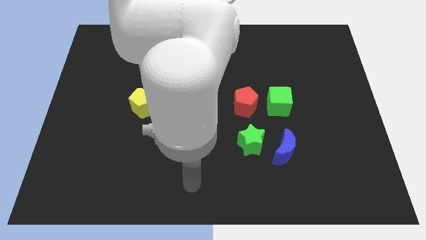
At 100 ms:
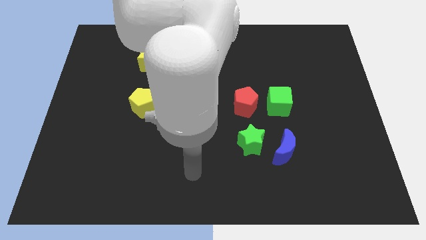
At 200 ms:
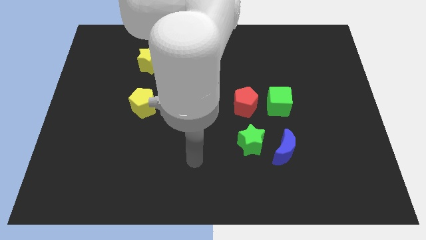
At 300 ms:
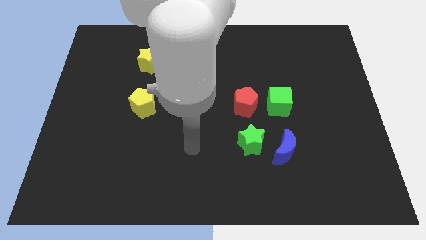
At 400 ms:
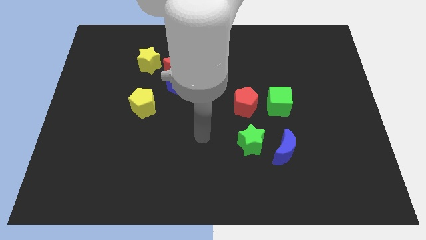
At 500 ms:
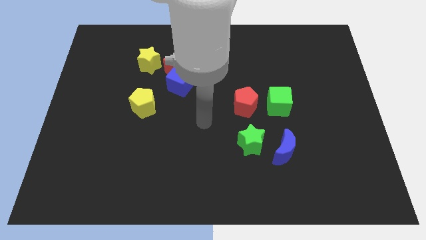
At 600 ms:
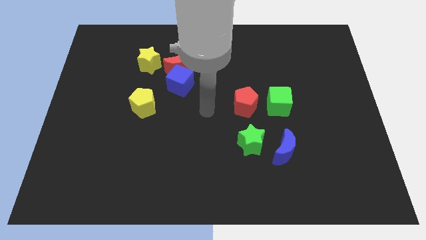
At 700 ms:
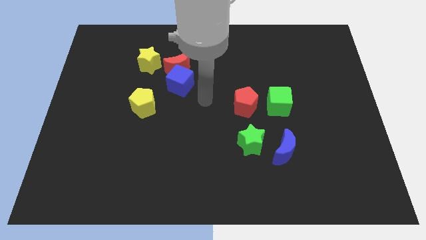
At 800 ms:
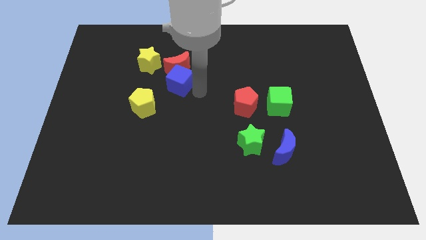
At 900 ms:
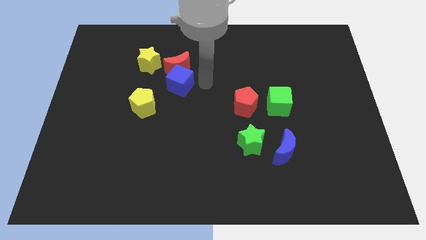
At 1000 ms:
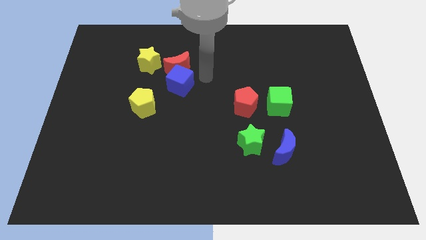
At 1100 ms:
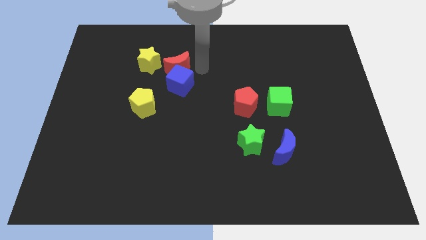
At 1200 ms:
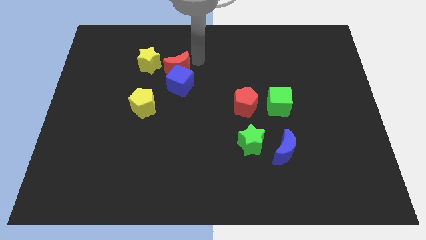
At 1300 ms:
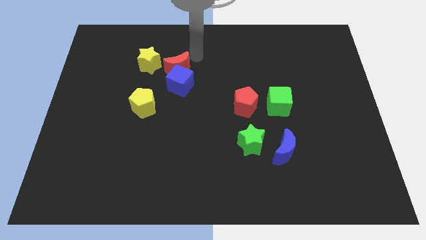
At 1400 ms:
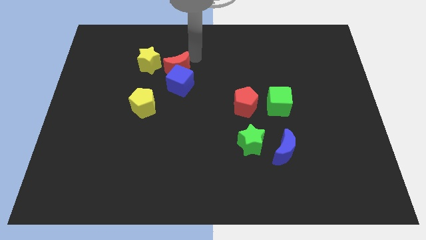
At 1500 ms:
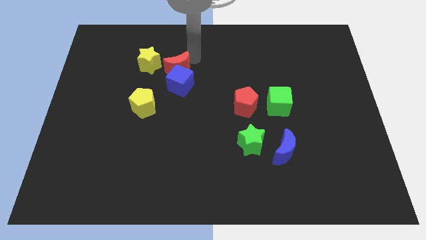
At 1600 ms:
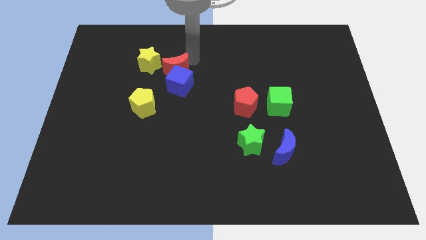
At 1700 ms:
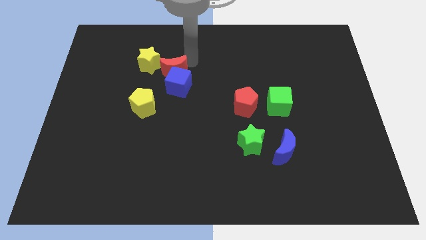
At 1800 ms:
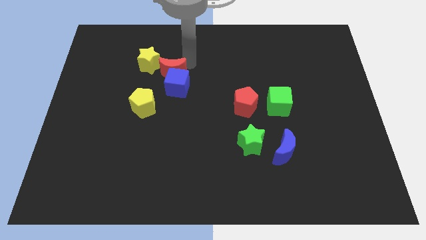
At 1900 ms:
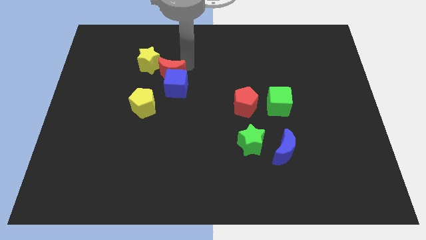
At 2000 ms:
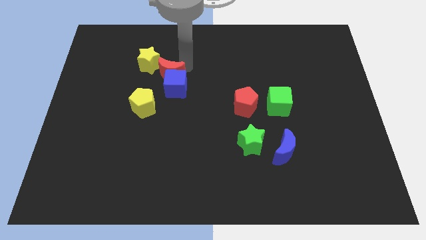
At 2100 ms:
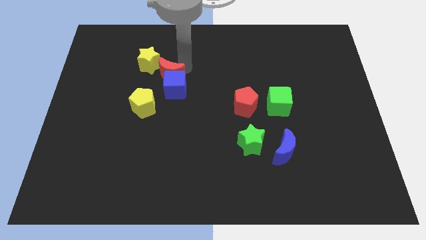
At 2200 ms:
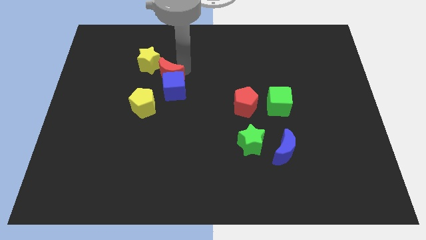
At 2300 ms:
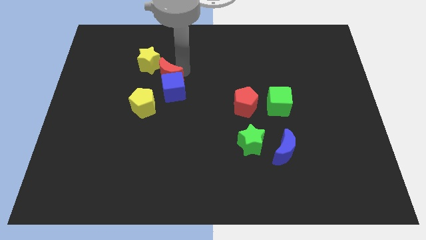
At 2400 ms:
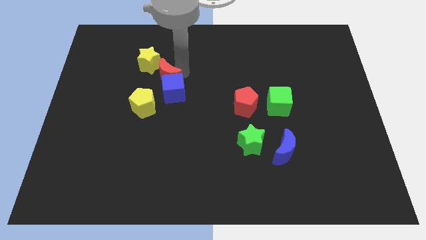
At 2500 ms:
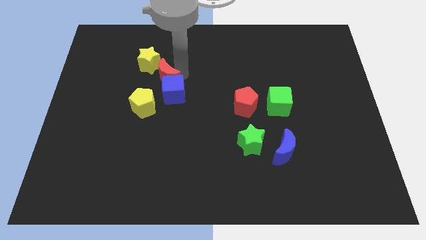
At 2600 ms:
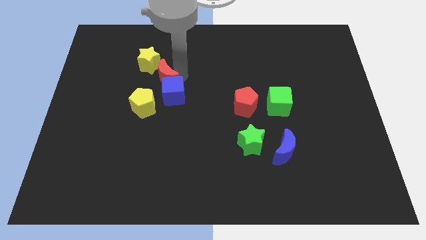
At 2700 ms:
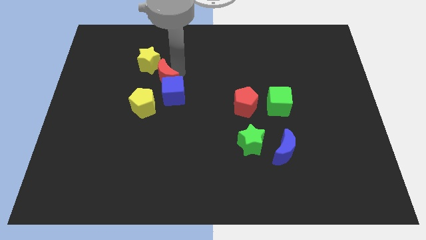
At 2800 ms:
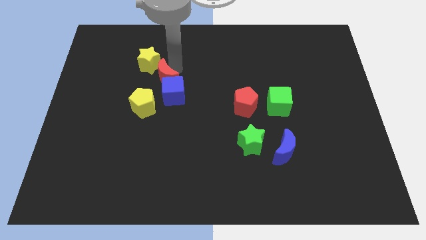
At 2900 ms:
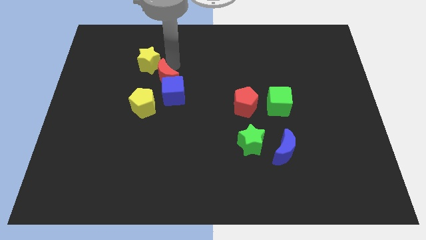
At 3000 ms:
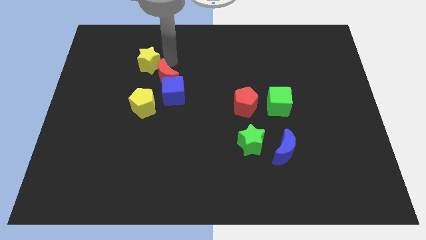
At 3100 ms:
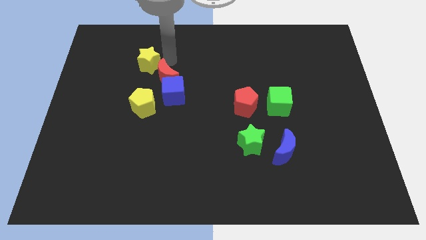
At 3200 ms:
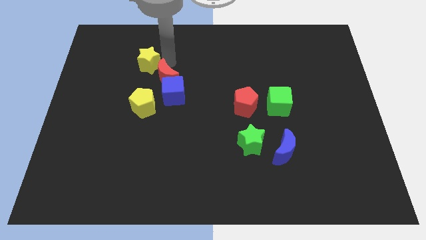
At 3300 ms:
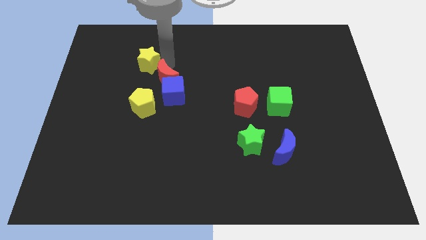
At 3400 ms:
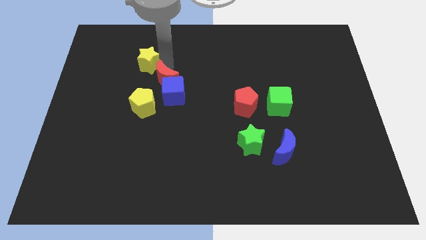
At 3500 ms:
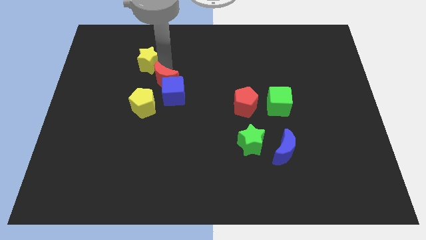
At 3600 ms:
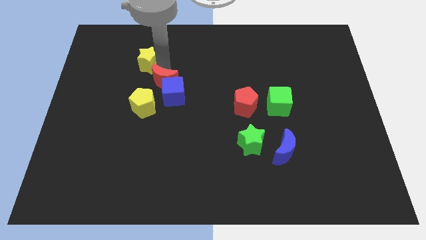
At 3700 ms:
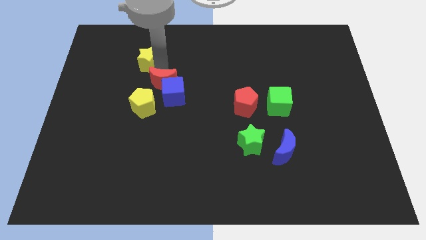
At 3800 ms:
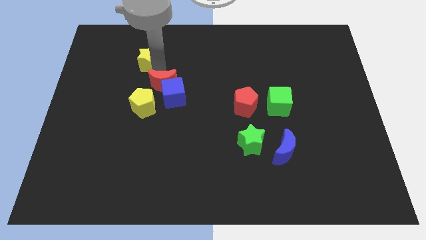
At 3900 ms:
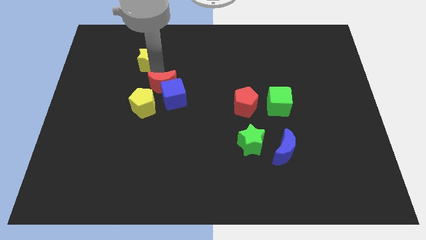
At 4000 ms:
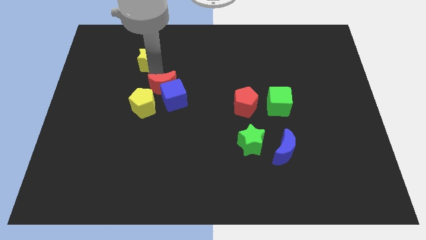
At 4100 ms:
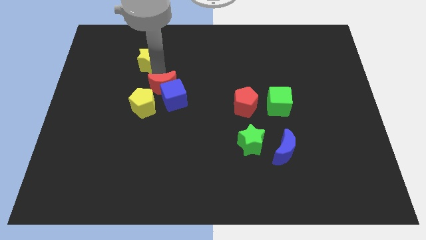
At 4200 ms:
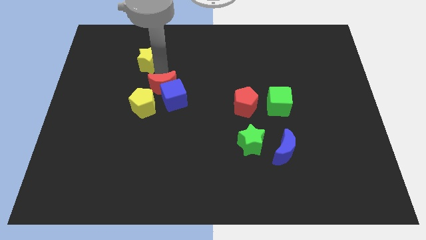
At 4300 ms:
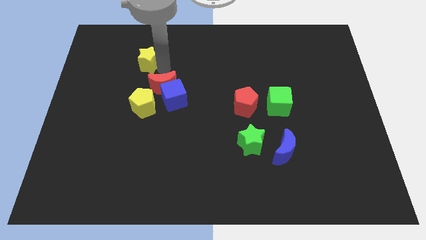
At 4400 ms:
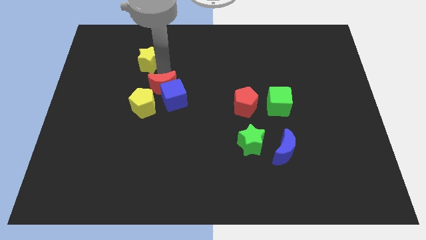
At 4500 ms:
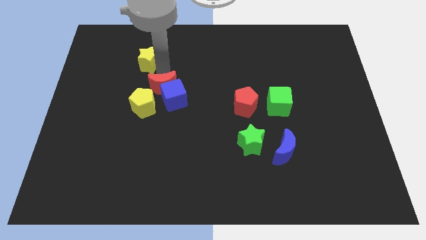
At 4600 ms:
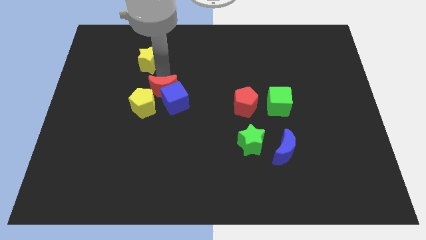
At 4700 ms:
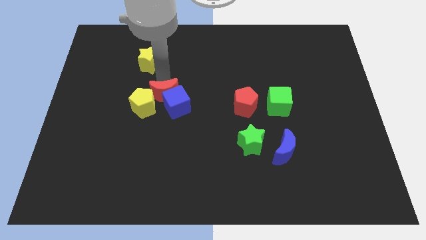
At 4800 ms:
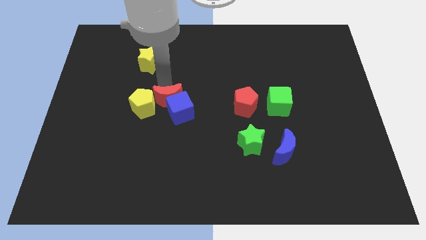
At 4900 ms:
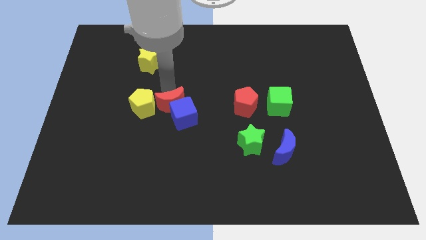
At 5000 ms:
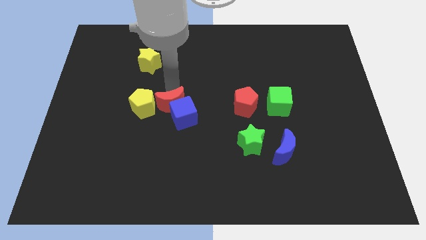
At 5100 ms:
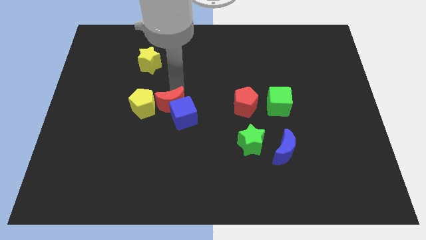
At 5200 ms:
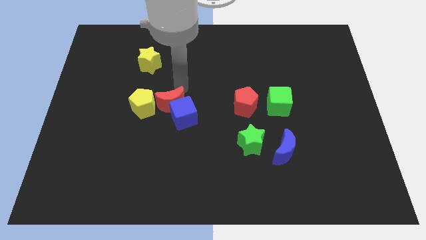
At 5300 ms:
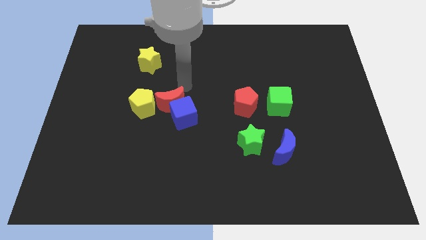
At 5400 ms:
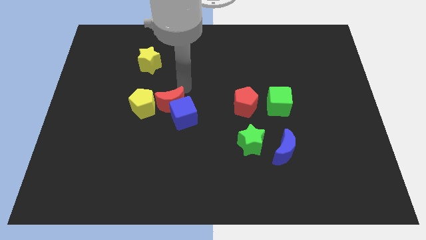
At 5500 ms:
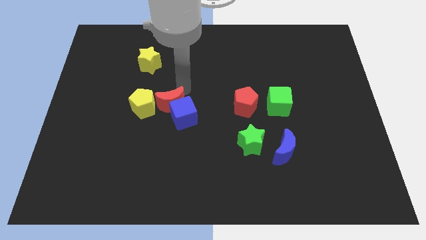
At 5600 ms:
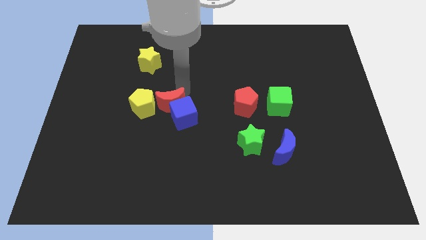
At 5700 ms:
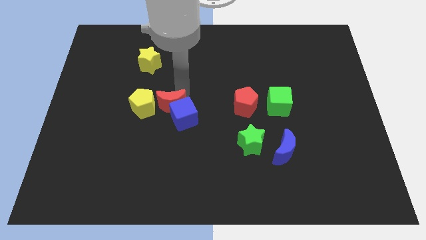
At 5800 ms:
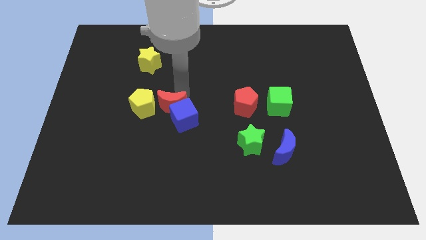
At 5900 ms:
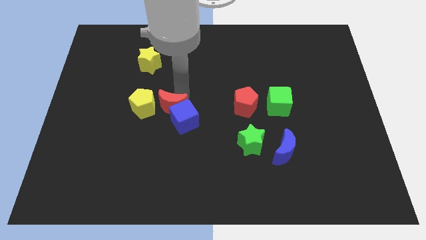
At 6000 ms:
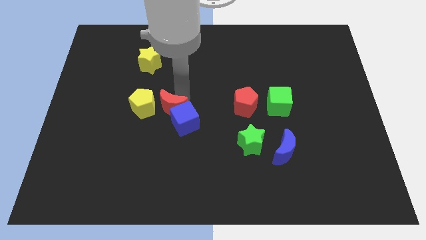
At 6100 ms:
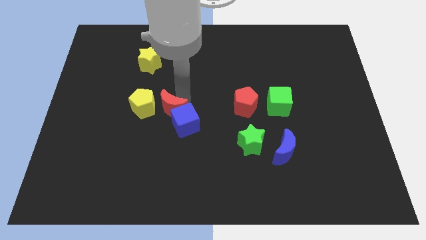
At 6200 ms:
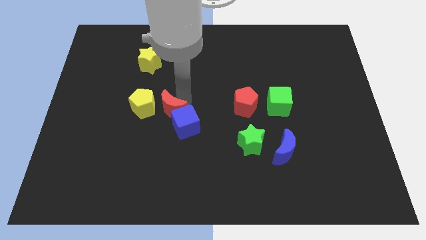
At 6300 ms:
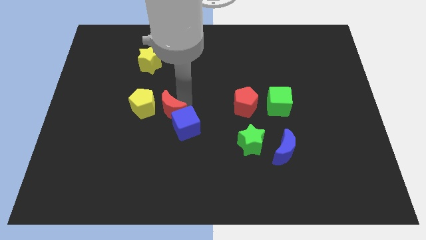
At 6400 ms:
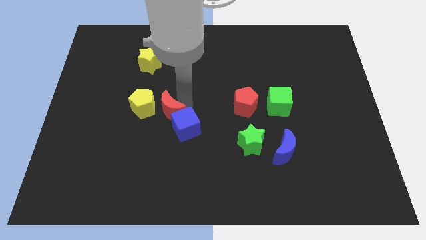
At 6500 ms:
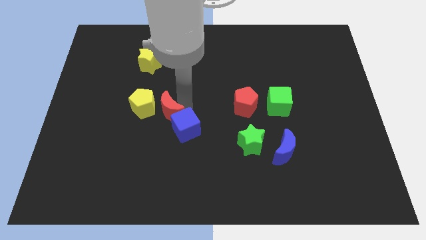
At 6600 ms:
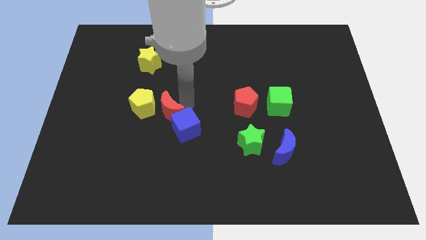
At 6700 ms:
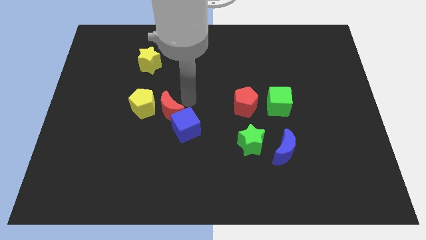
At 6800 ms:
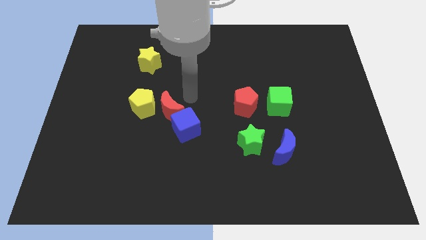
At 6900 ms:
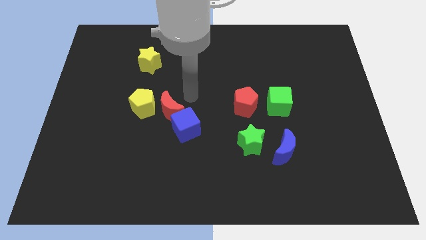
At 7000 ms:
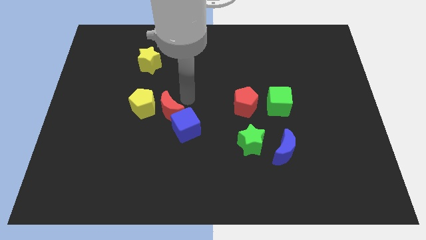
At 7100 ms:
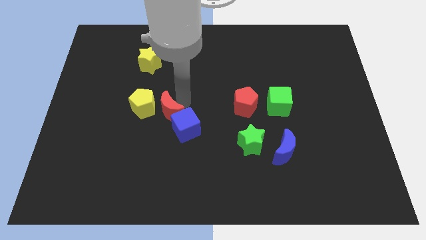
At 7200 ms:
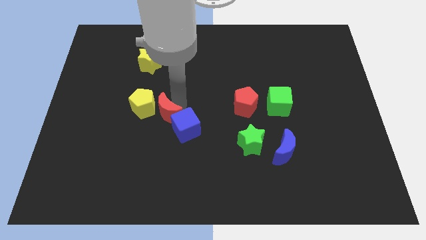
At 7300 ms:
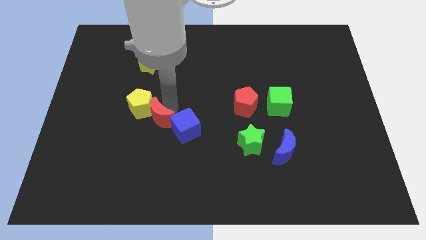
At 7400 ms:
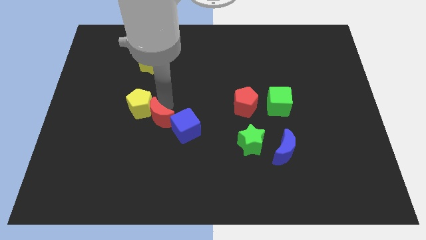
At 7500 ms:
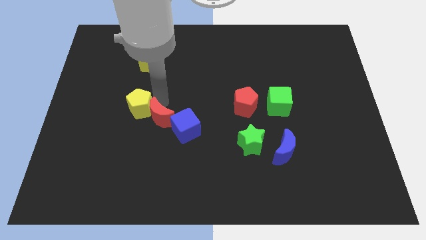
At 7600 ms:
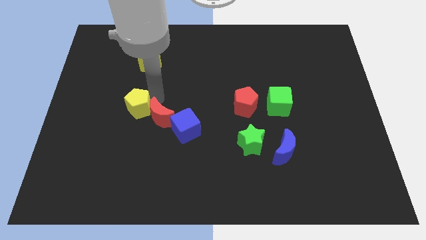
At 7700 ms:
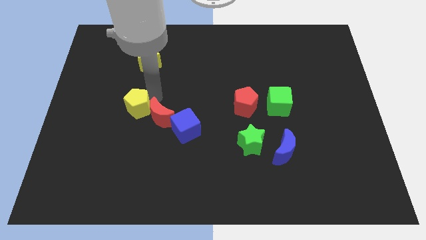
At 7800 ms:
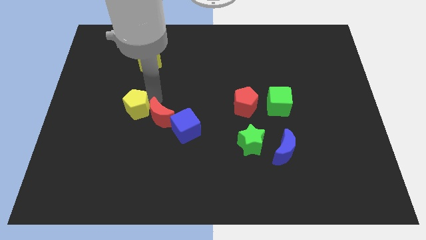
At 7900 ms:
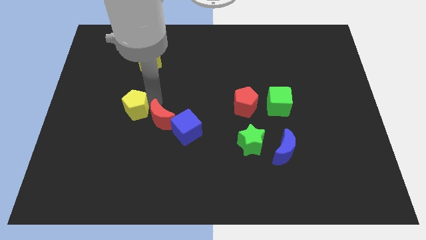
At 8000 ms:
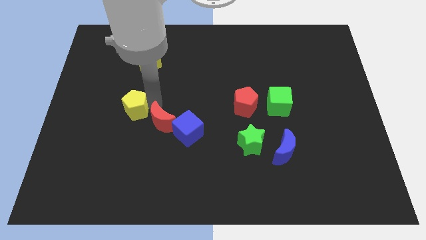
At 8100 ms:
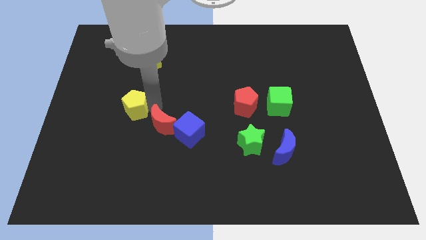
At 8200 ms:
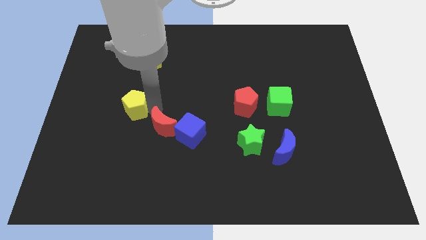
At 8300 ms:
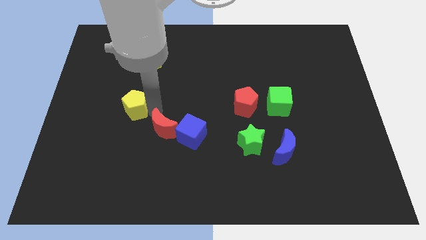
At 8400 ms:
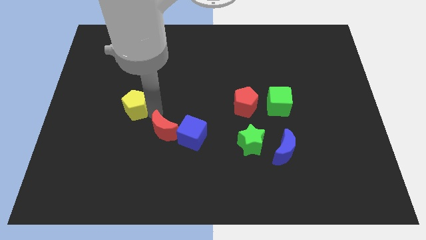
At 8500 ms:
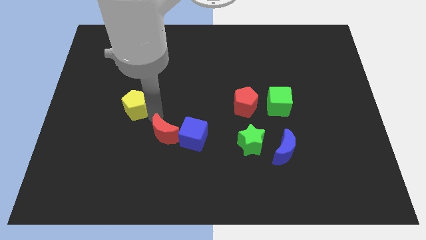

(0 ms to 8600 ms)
move the red moon down
